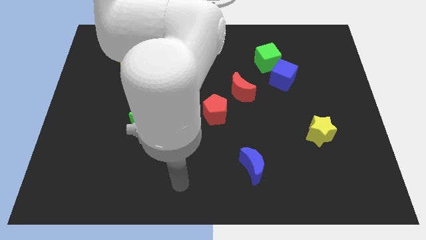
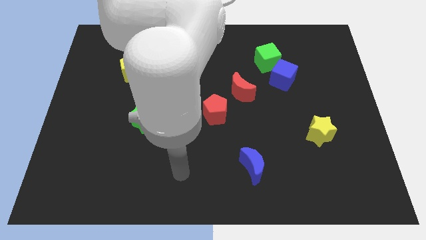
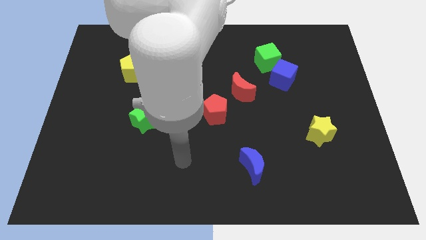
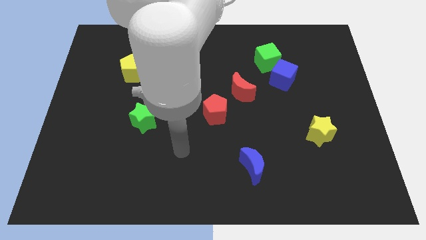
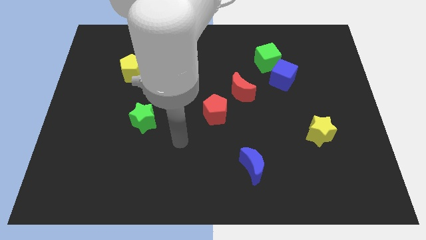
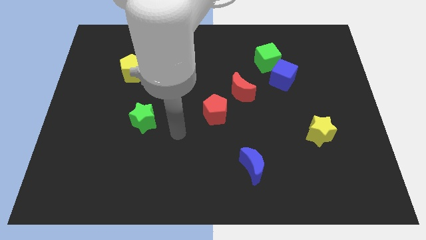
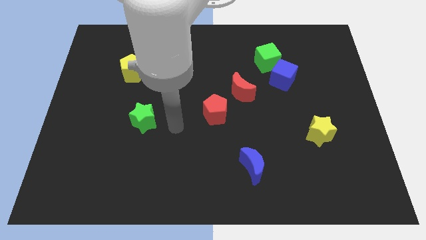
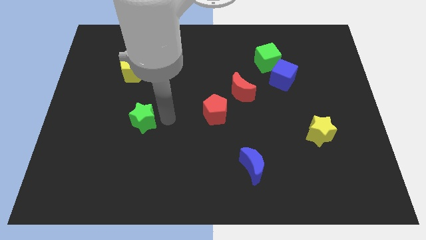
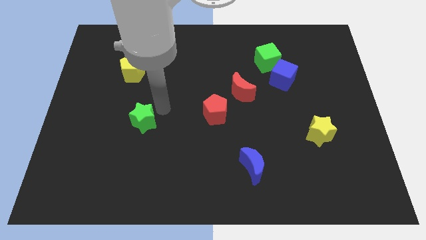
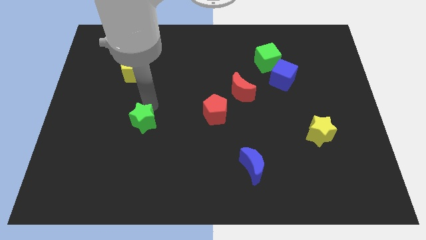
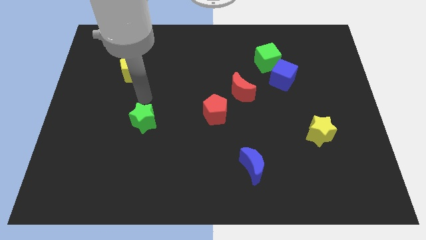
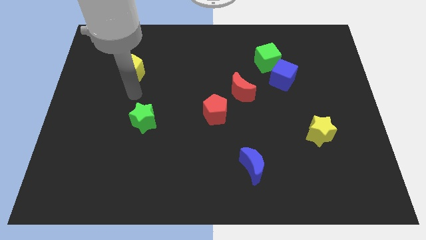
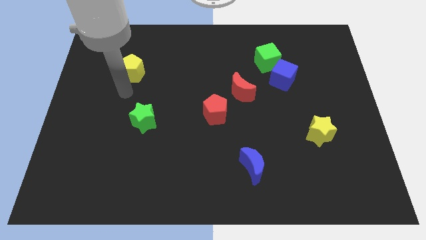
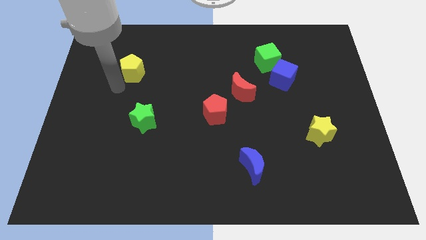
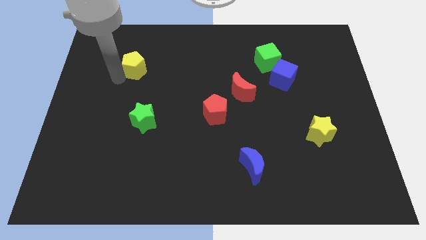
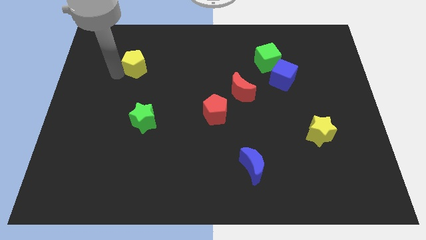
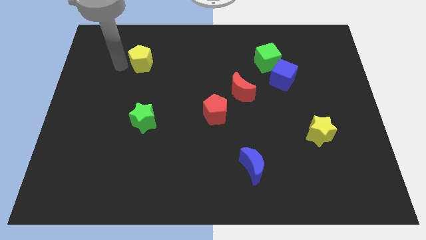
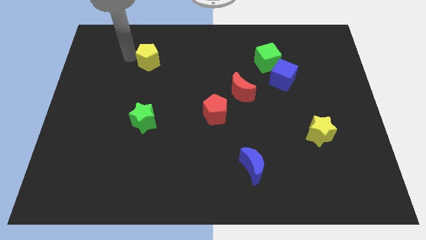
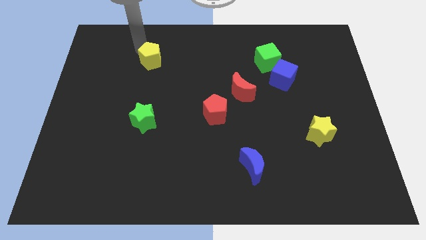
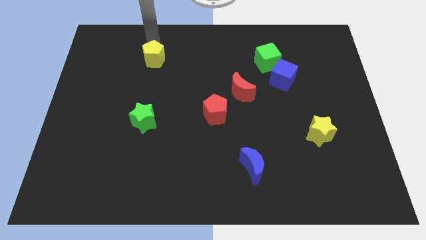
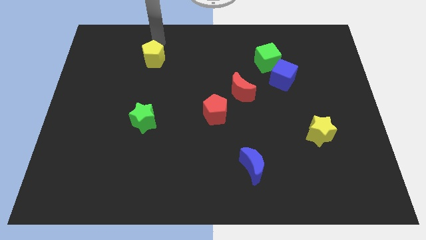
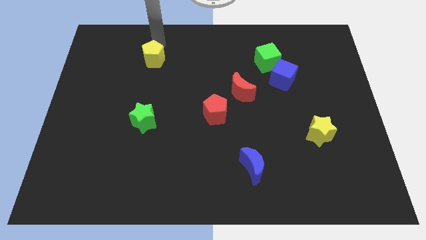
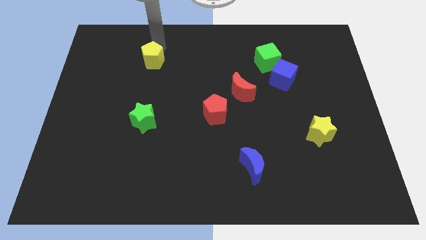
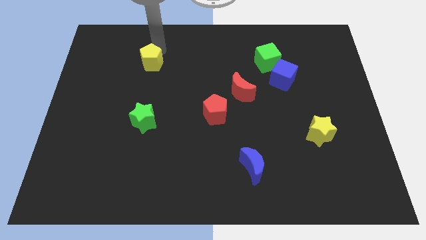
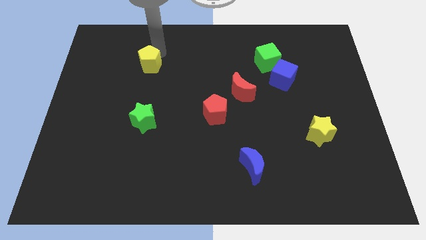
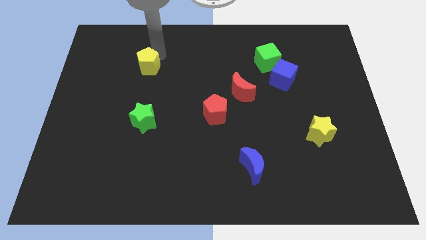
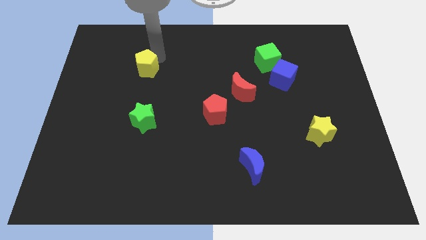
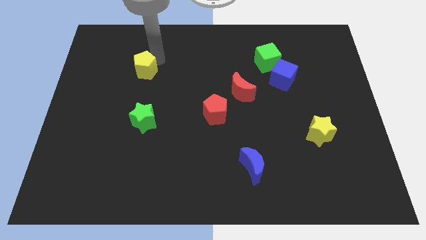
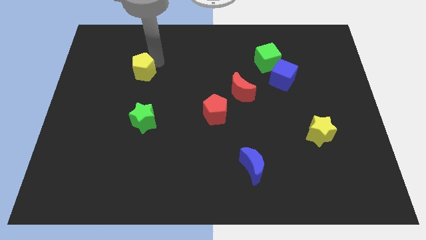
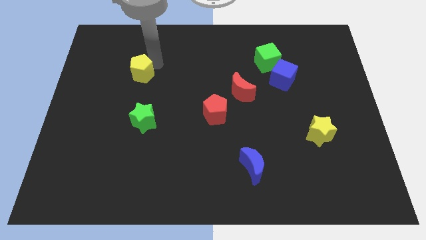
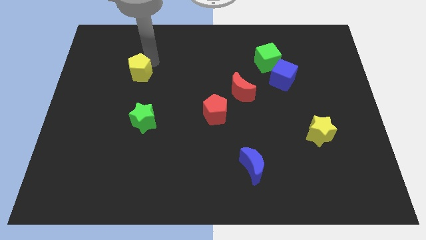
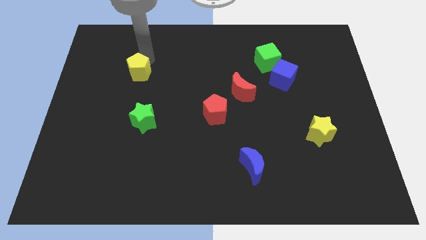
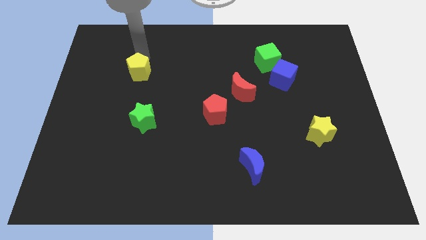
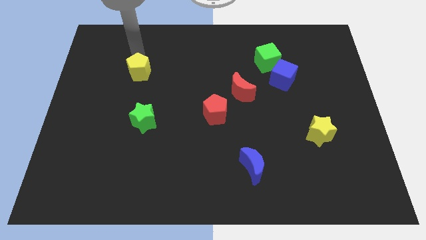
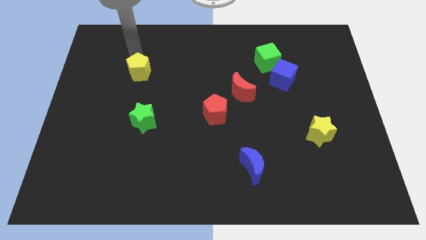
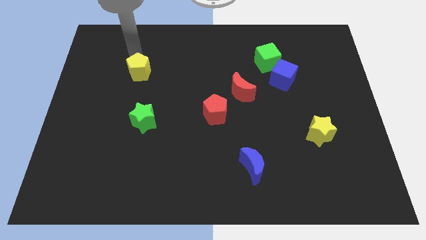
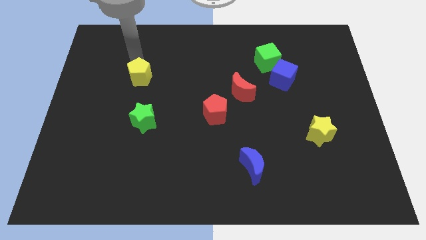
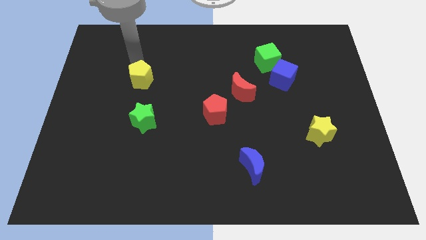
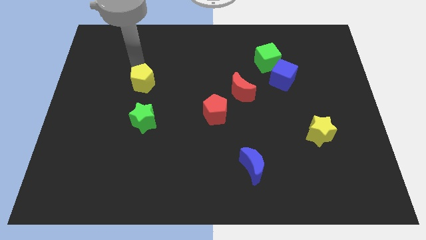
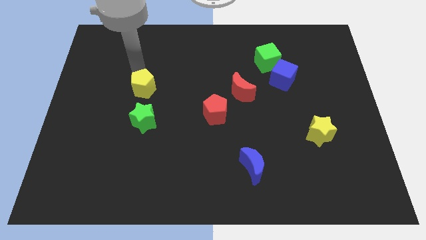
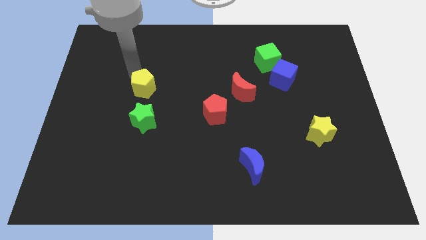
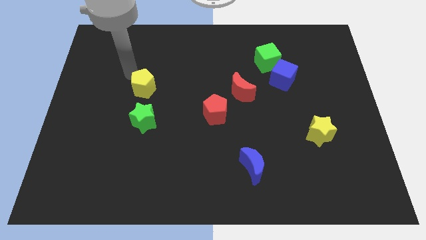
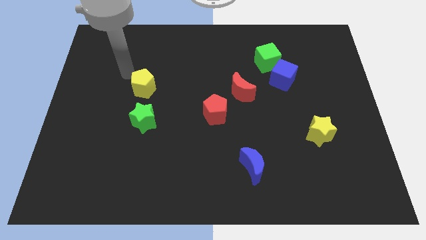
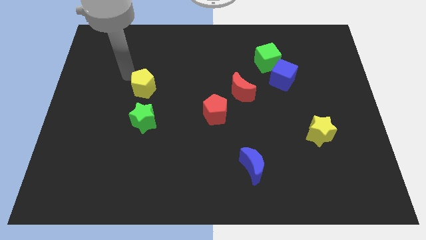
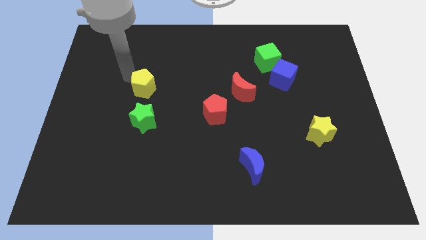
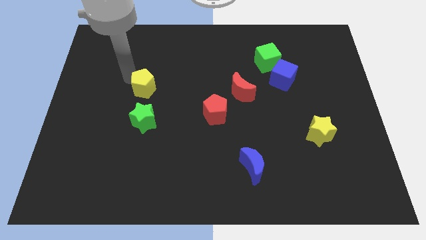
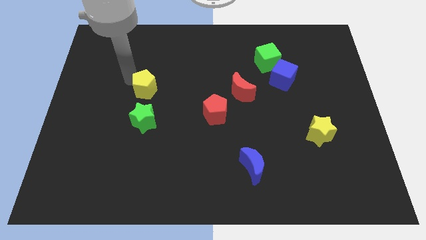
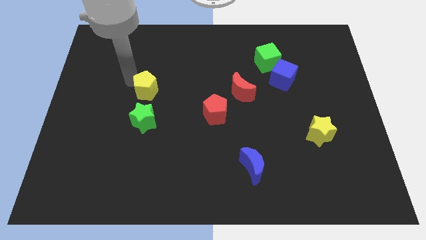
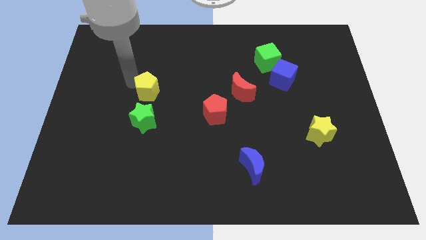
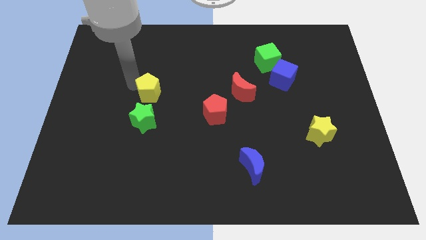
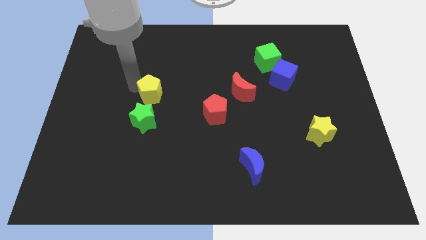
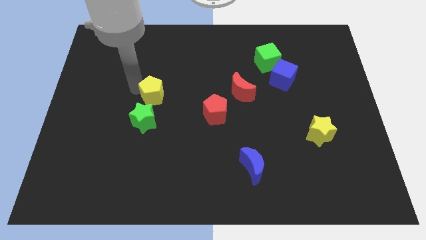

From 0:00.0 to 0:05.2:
move the yellow pentagon diagonally up and to the right of the green star

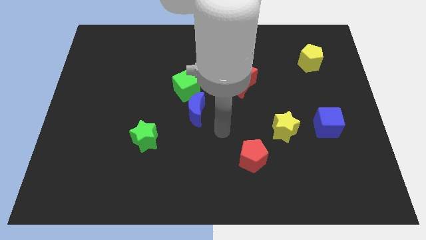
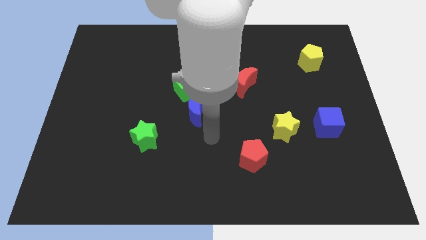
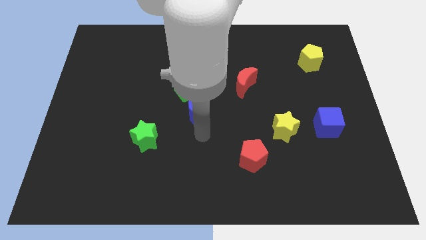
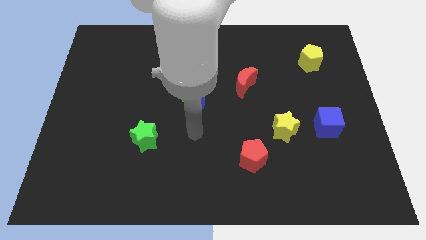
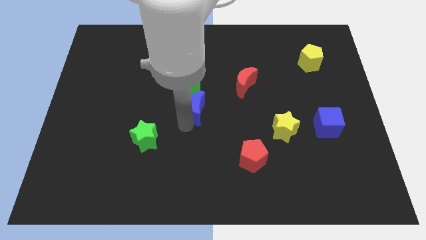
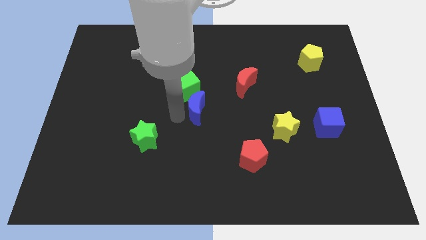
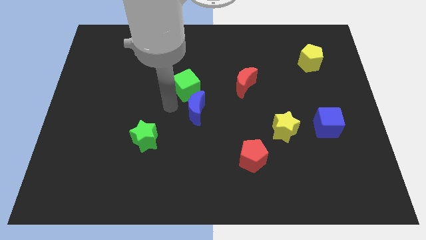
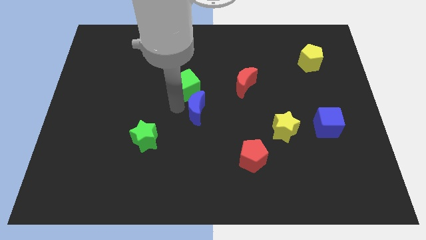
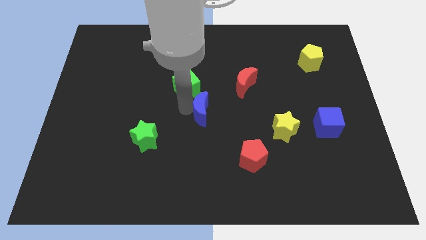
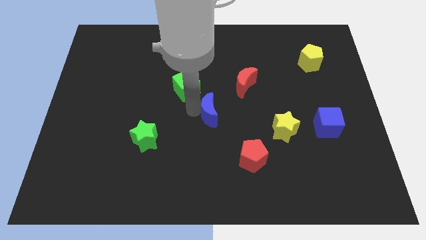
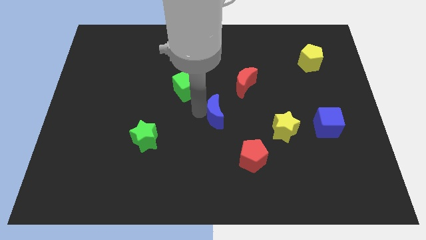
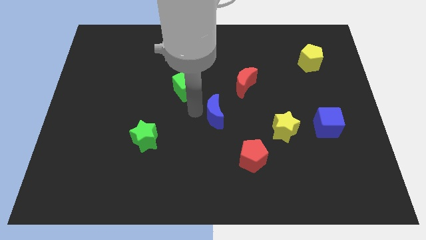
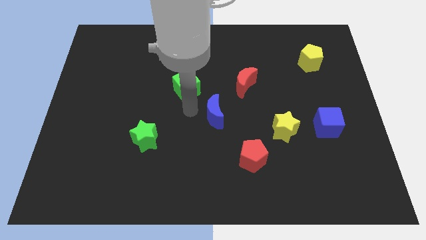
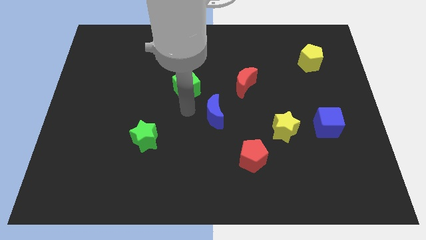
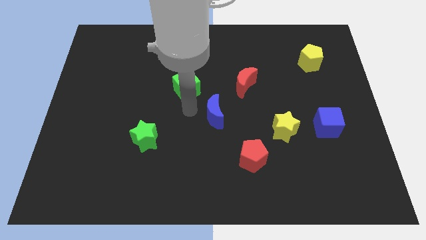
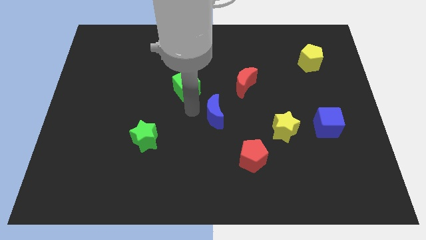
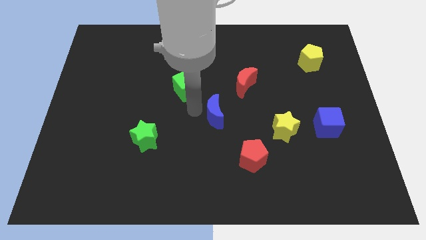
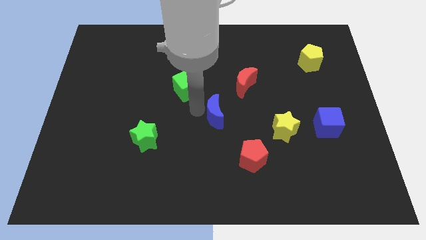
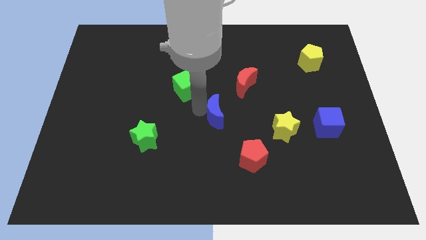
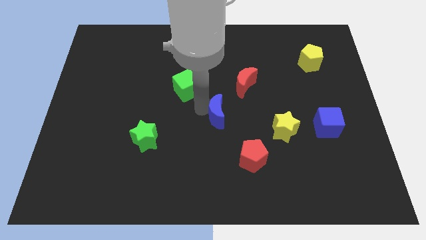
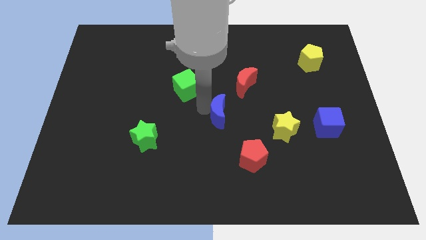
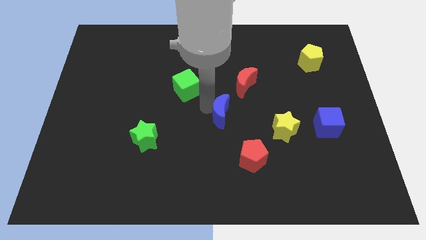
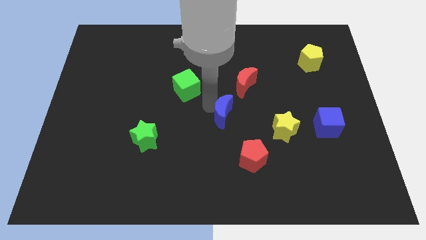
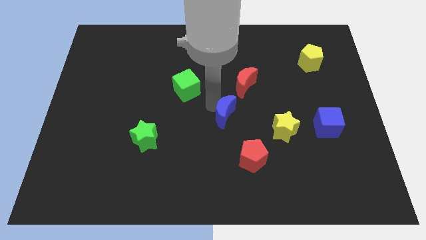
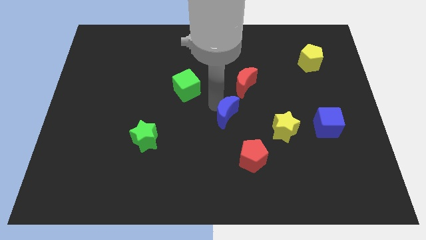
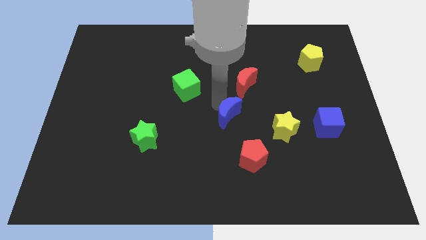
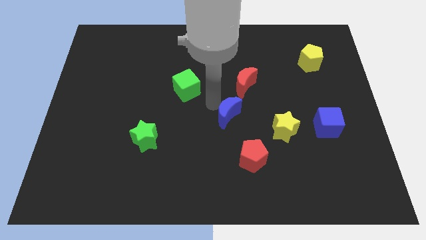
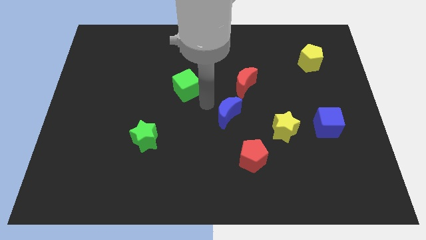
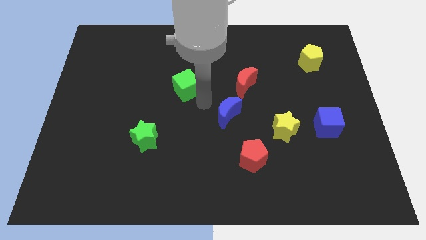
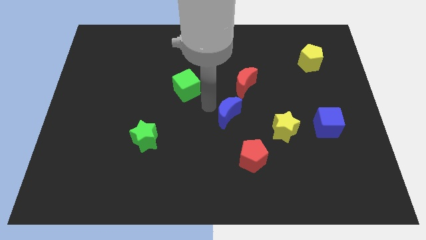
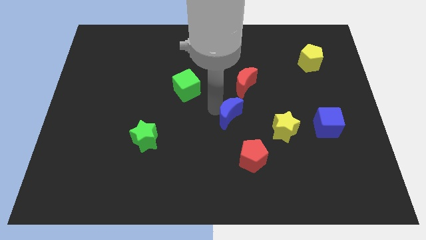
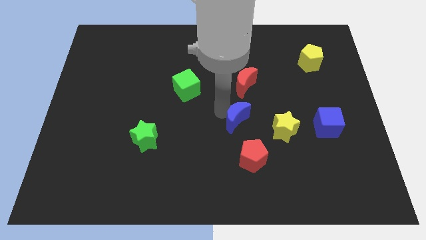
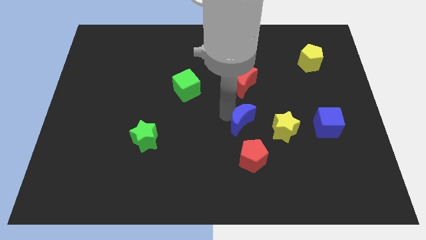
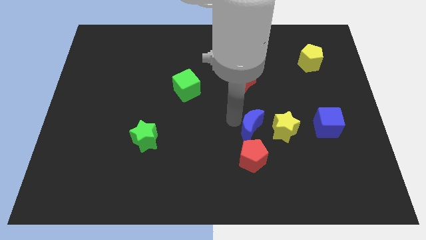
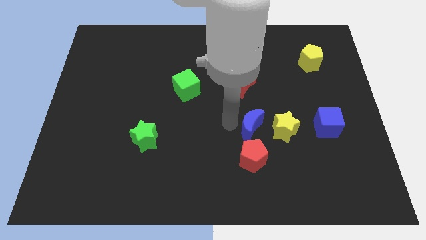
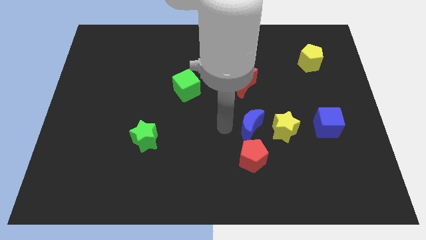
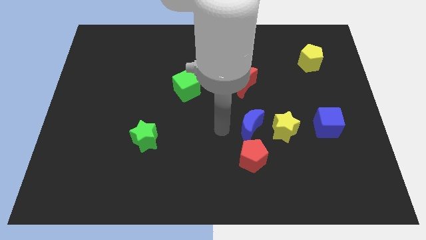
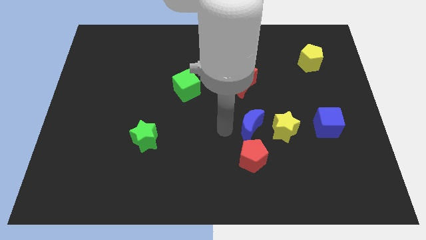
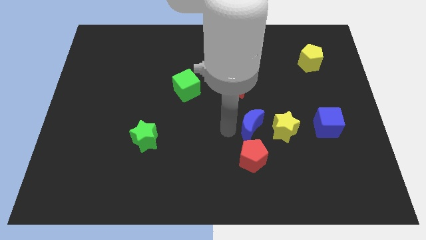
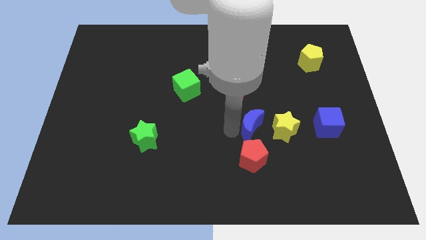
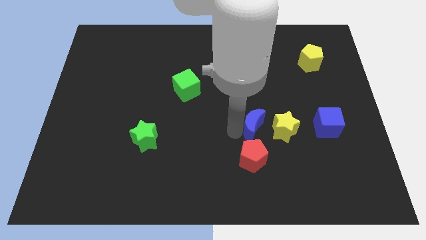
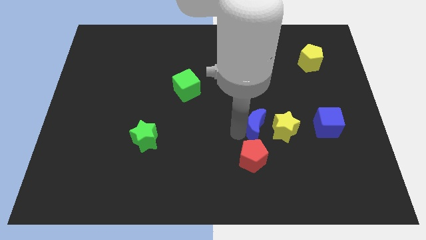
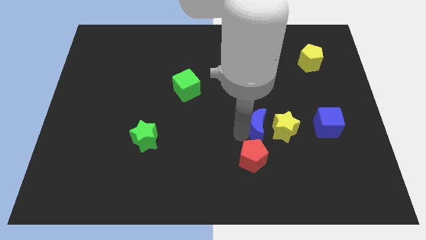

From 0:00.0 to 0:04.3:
push the blue moon left of the blue cube
